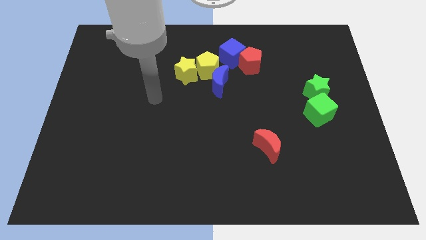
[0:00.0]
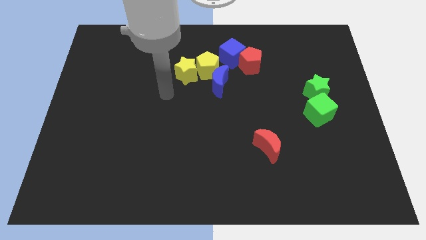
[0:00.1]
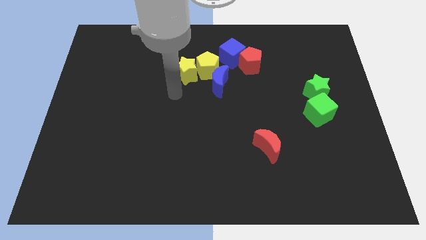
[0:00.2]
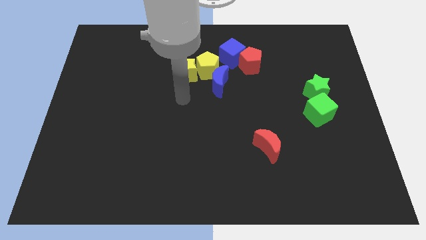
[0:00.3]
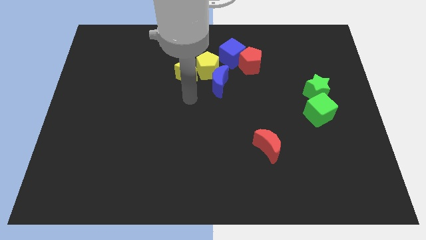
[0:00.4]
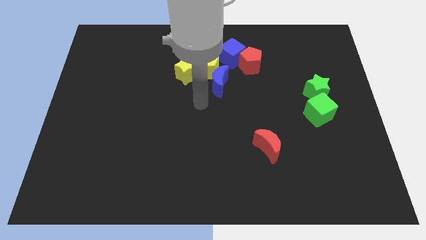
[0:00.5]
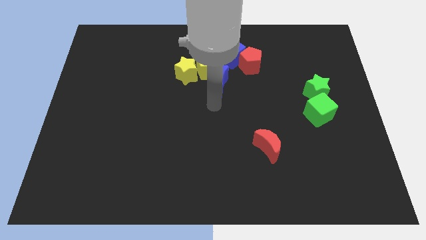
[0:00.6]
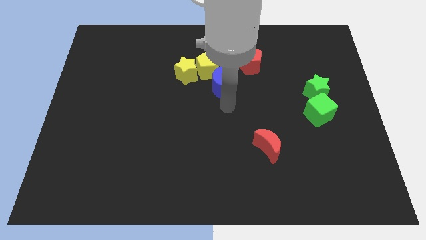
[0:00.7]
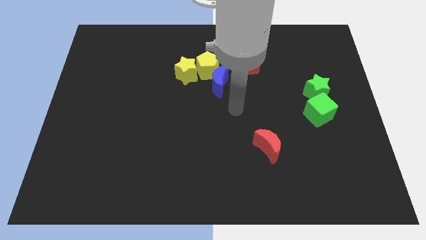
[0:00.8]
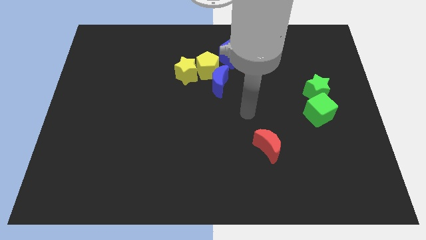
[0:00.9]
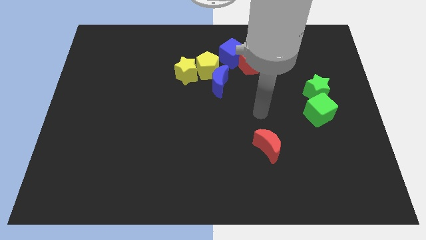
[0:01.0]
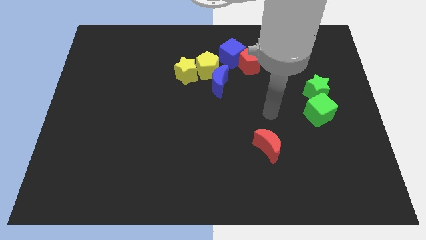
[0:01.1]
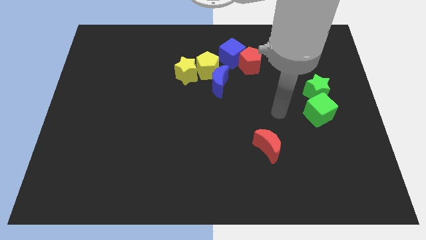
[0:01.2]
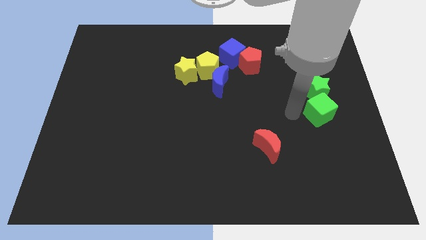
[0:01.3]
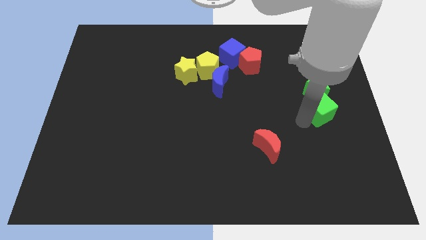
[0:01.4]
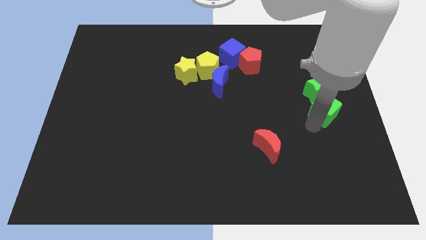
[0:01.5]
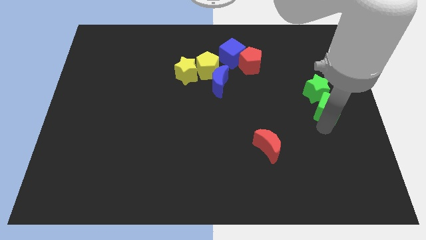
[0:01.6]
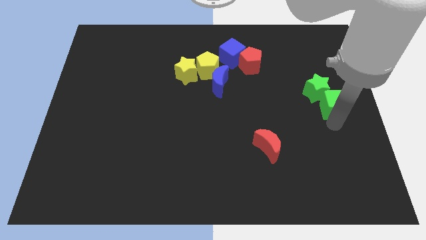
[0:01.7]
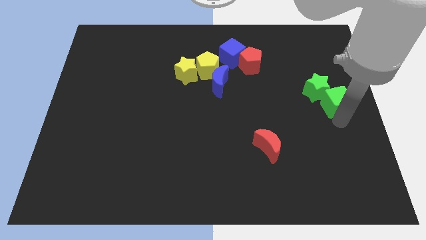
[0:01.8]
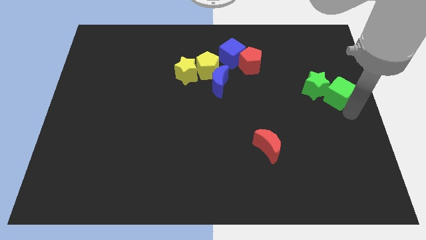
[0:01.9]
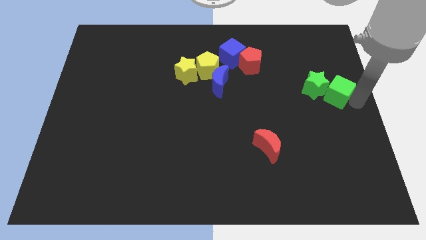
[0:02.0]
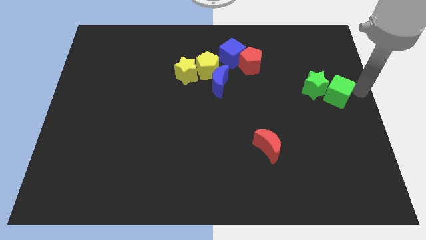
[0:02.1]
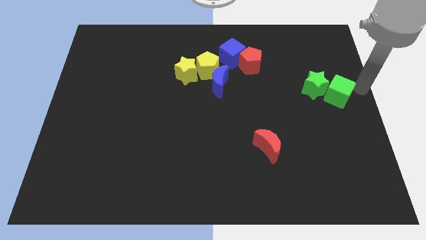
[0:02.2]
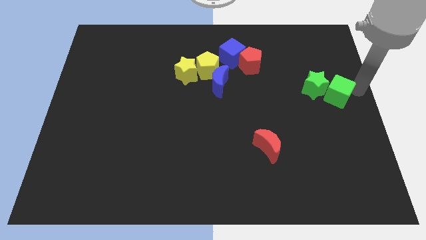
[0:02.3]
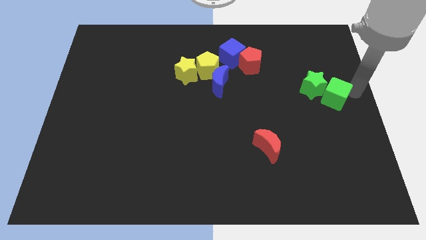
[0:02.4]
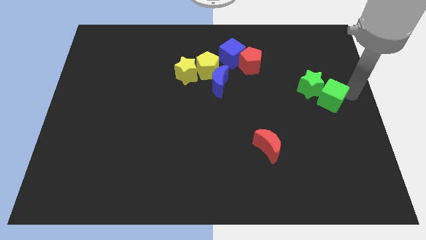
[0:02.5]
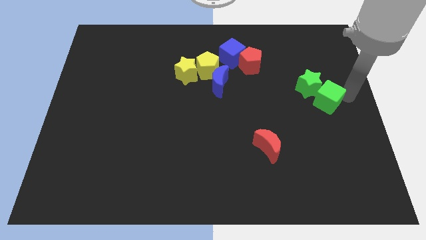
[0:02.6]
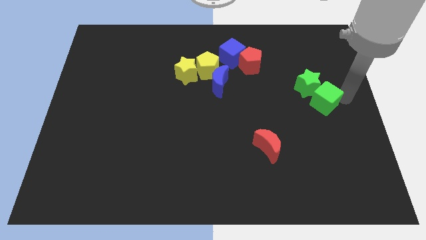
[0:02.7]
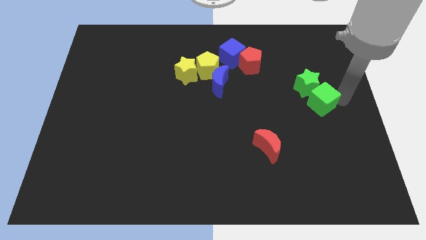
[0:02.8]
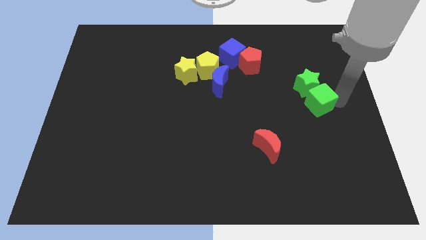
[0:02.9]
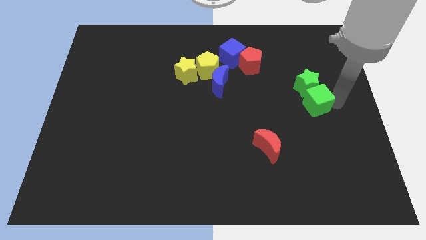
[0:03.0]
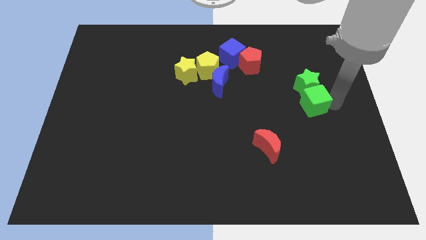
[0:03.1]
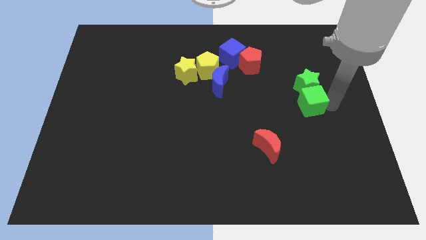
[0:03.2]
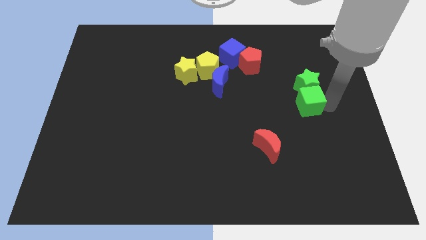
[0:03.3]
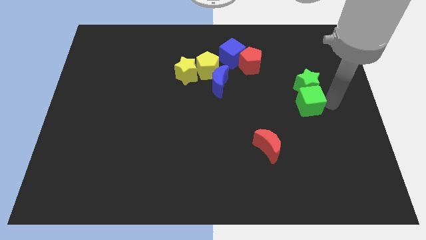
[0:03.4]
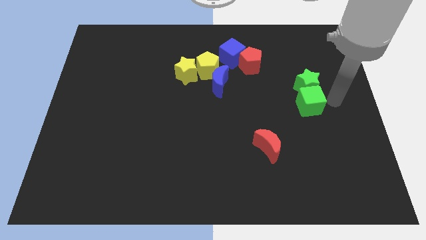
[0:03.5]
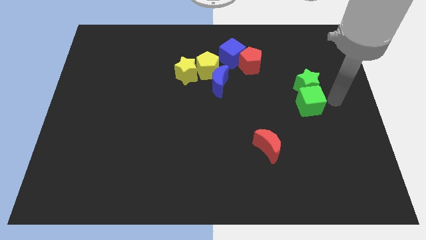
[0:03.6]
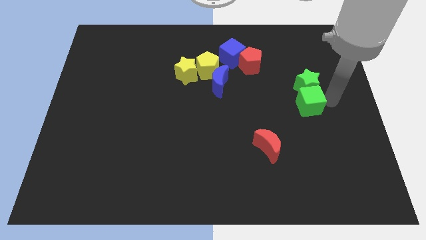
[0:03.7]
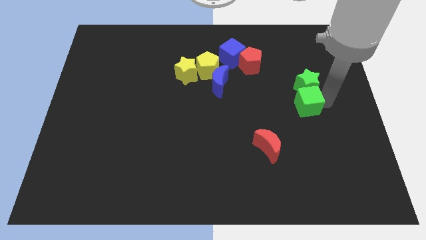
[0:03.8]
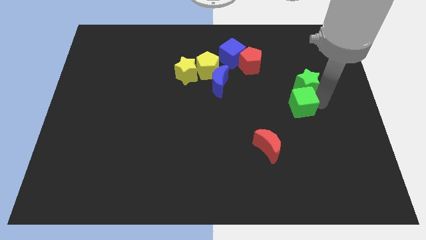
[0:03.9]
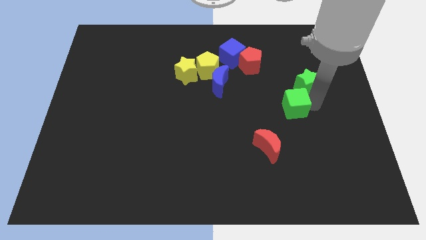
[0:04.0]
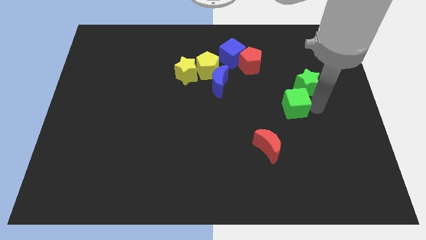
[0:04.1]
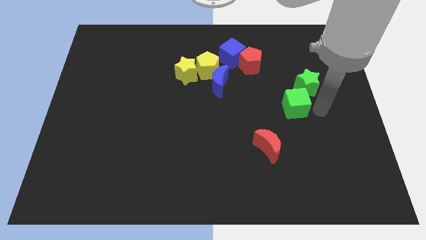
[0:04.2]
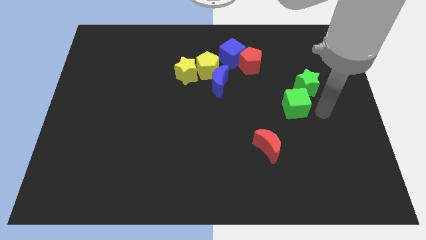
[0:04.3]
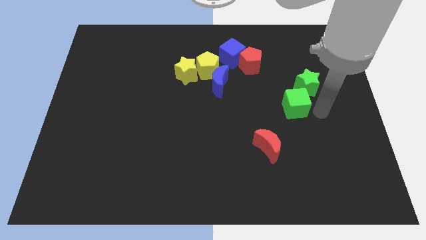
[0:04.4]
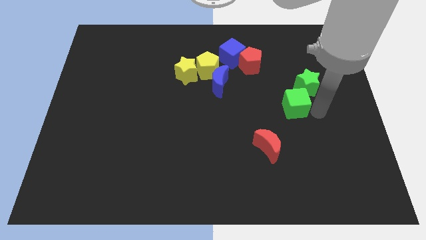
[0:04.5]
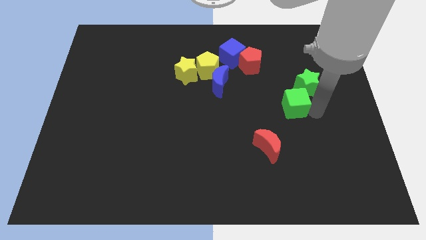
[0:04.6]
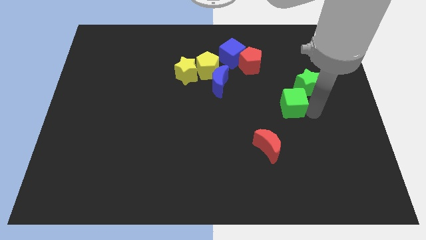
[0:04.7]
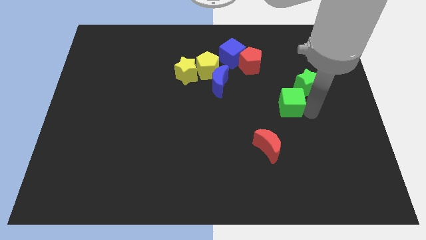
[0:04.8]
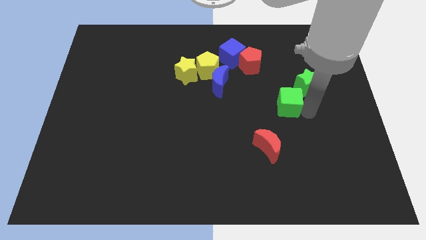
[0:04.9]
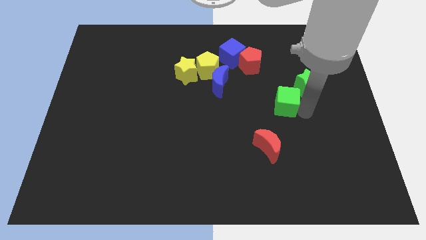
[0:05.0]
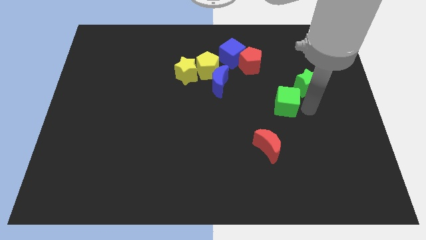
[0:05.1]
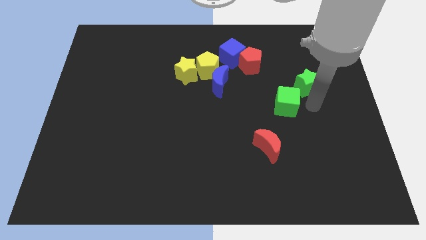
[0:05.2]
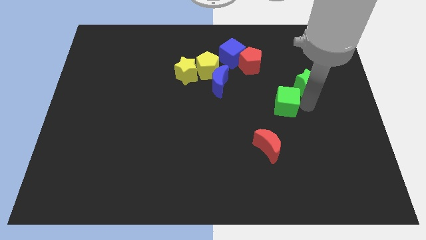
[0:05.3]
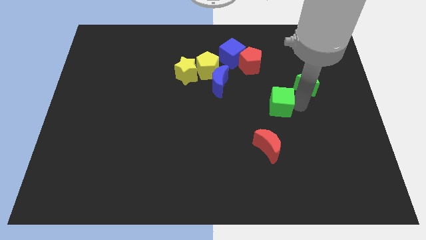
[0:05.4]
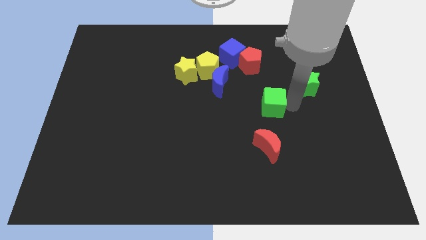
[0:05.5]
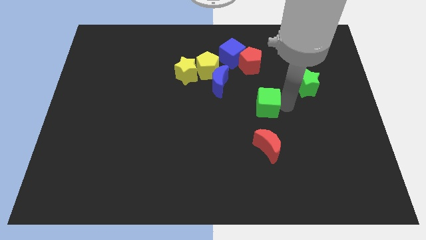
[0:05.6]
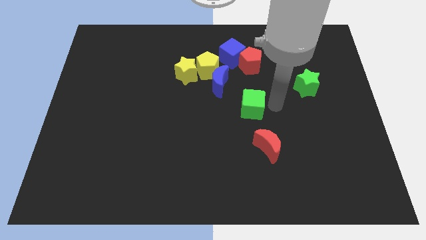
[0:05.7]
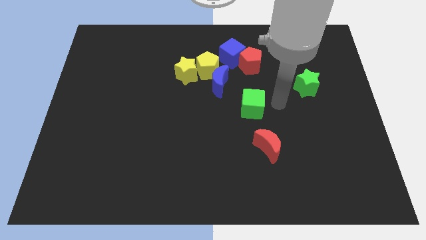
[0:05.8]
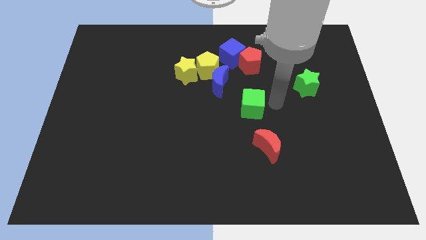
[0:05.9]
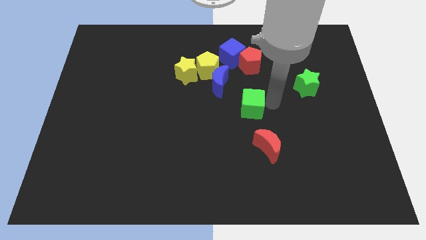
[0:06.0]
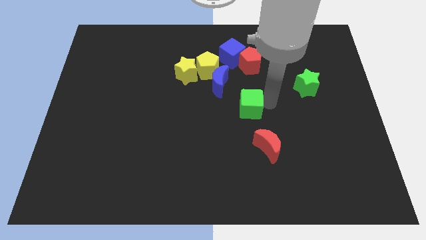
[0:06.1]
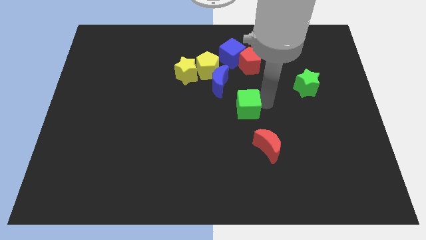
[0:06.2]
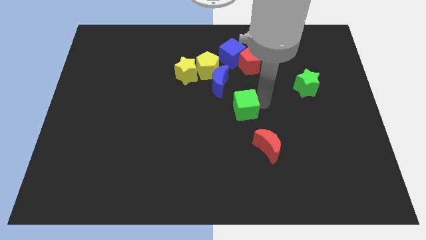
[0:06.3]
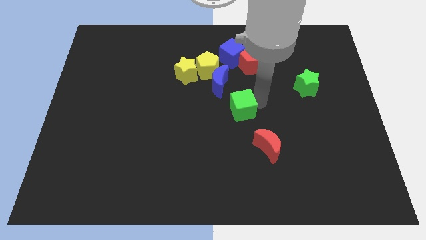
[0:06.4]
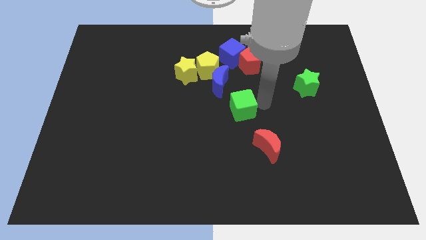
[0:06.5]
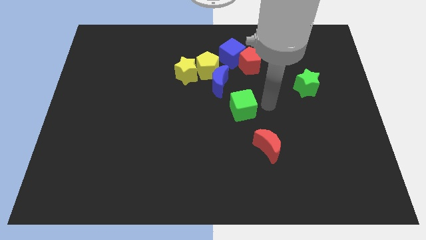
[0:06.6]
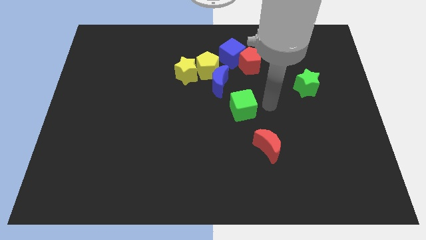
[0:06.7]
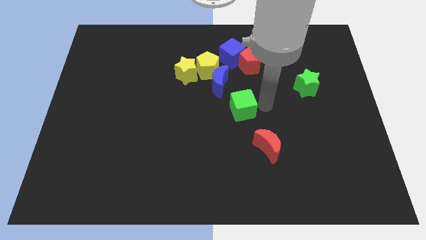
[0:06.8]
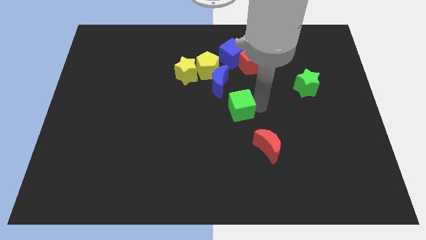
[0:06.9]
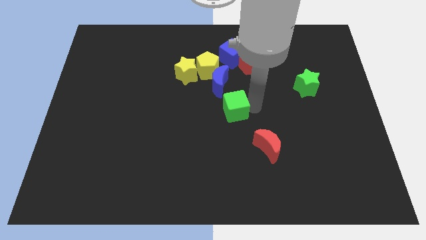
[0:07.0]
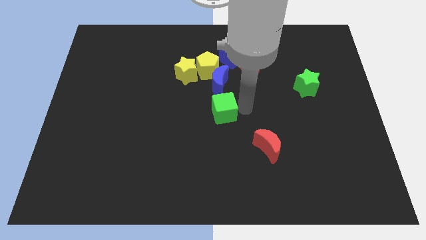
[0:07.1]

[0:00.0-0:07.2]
move the green cube left

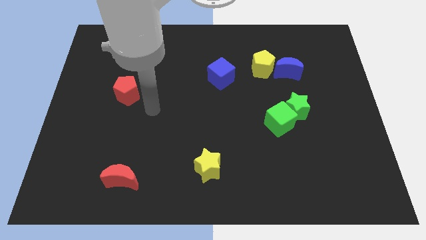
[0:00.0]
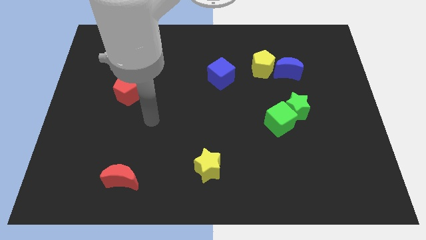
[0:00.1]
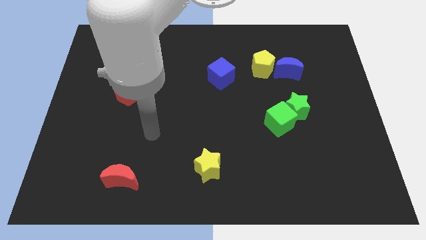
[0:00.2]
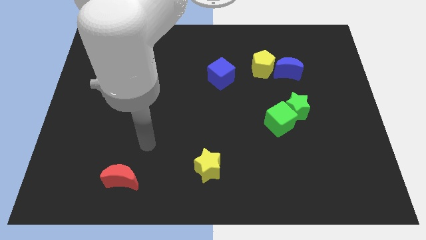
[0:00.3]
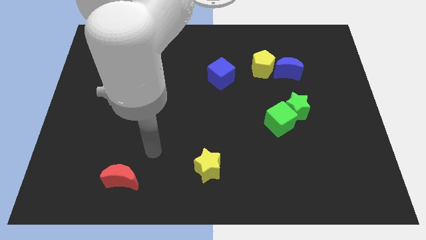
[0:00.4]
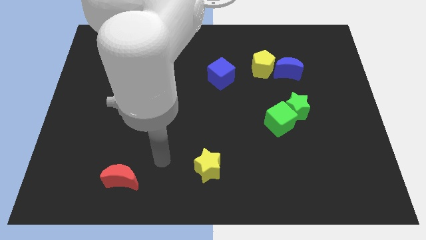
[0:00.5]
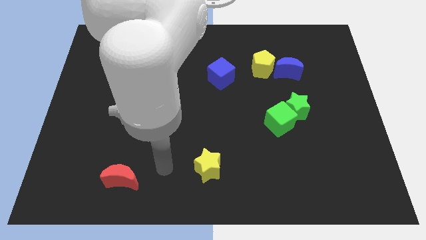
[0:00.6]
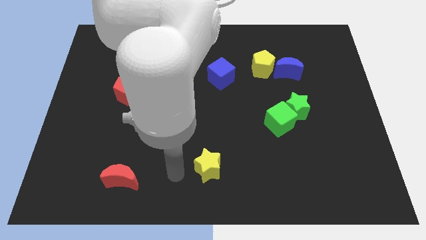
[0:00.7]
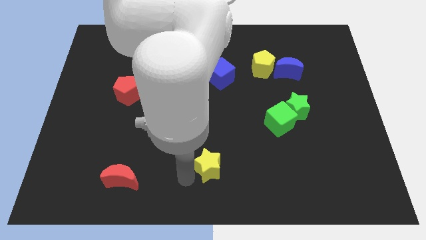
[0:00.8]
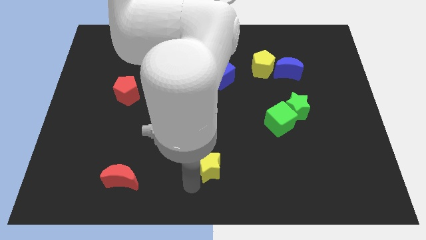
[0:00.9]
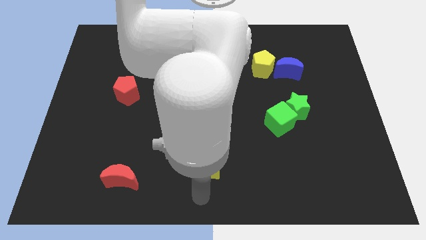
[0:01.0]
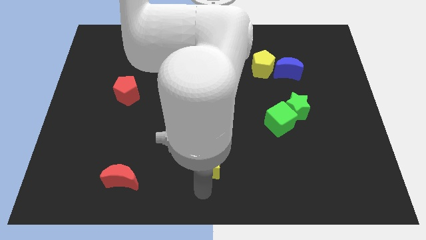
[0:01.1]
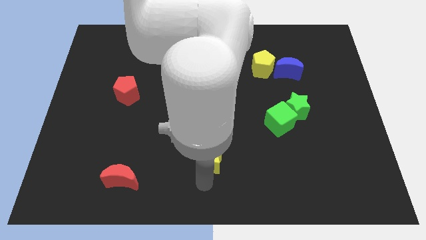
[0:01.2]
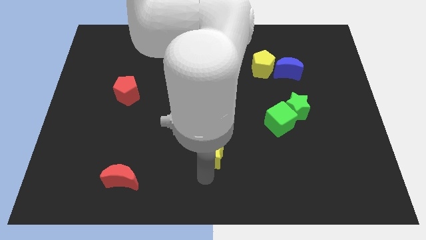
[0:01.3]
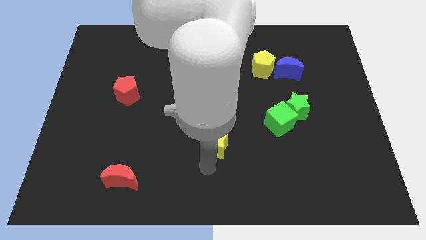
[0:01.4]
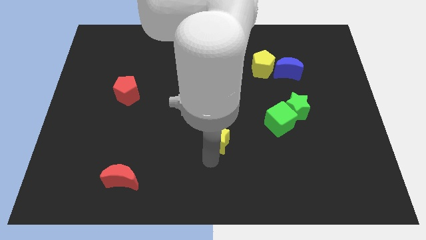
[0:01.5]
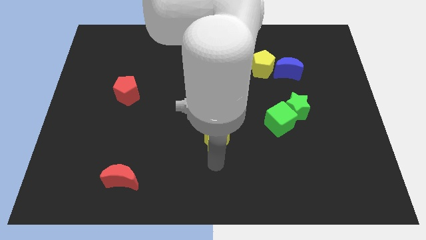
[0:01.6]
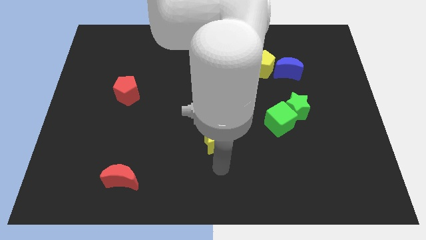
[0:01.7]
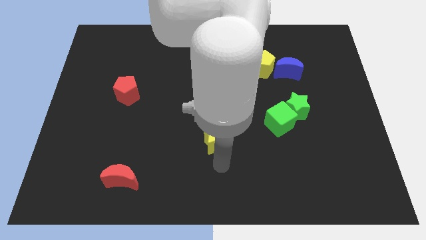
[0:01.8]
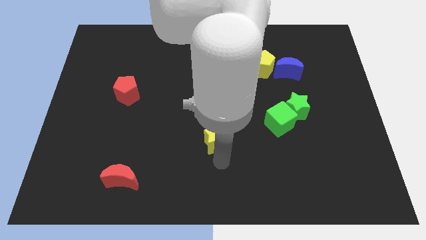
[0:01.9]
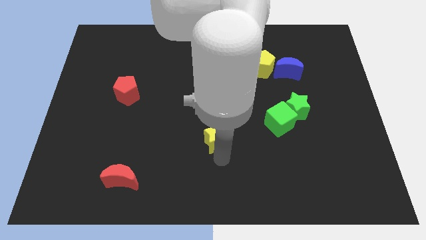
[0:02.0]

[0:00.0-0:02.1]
slightly move the yellow star upwards
